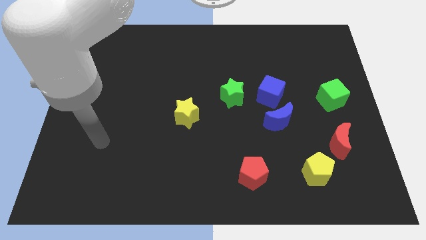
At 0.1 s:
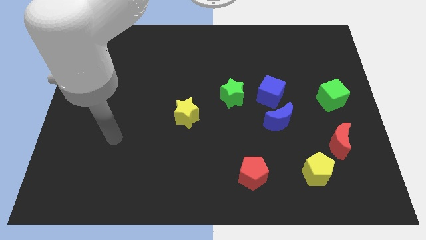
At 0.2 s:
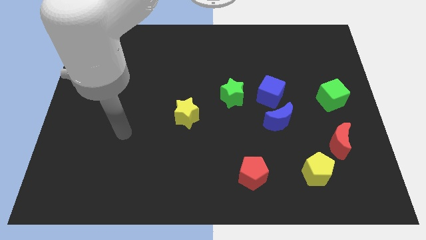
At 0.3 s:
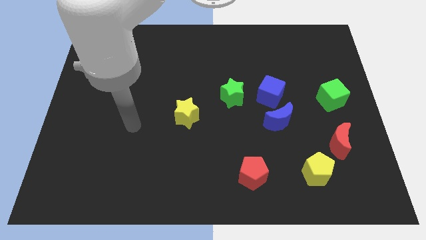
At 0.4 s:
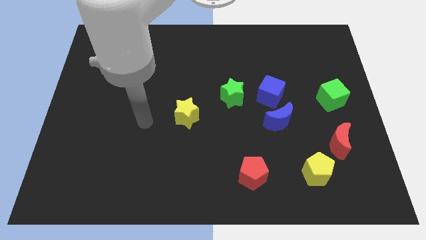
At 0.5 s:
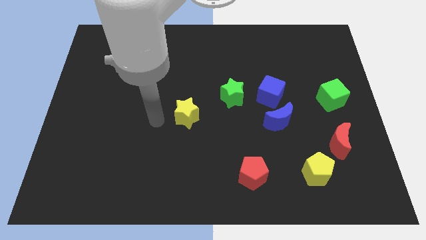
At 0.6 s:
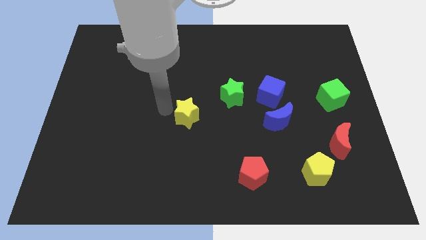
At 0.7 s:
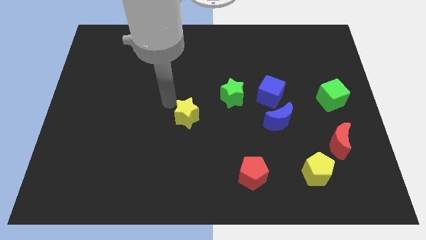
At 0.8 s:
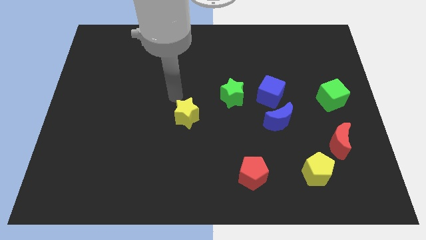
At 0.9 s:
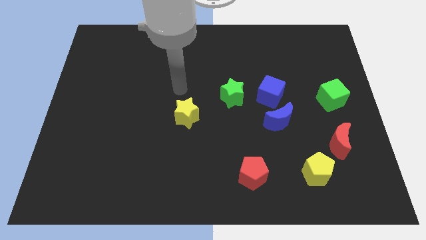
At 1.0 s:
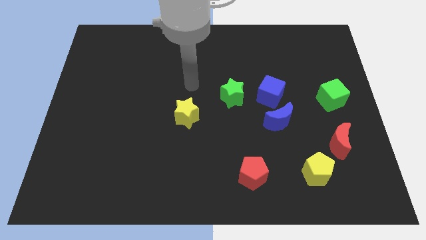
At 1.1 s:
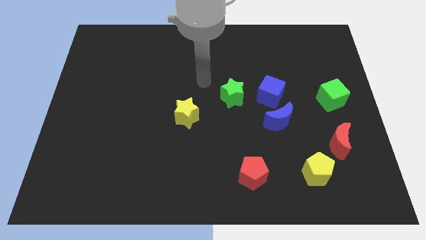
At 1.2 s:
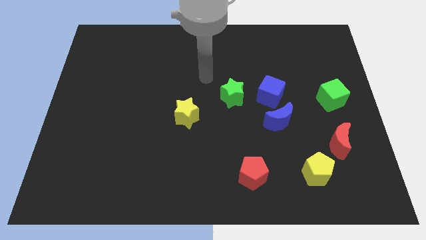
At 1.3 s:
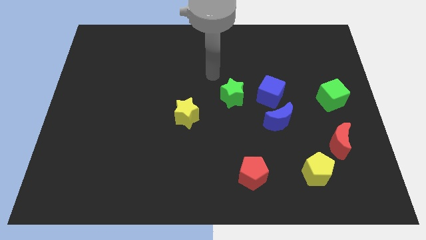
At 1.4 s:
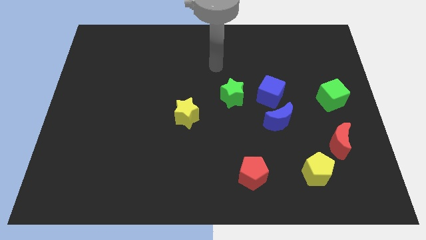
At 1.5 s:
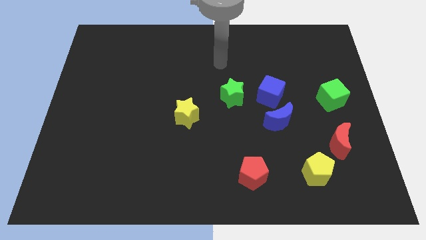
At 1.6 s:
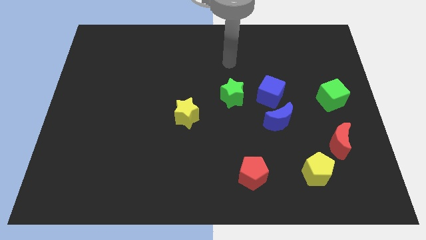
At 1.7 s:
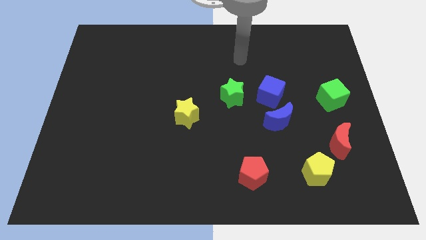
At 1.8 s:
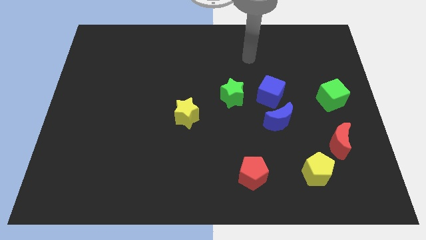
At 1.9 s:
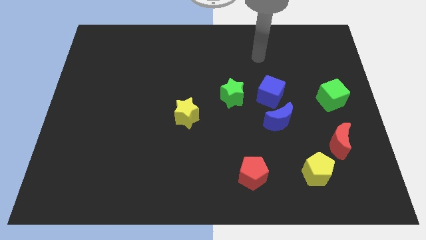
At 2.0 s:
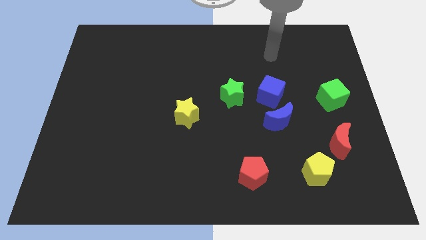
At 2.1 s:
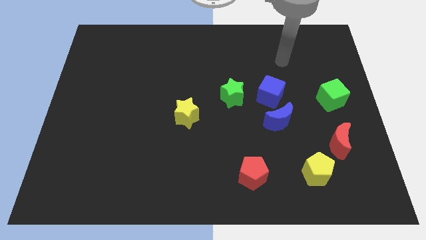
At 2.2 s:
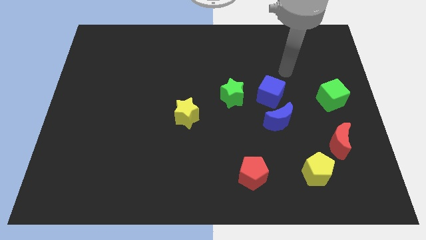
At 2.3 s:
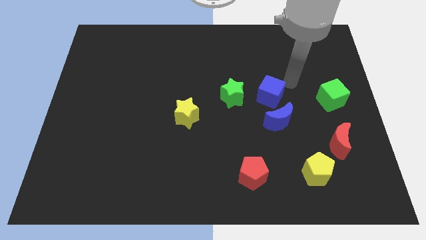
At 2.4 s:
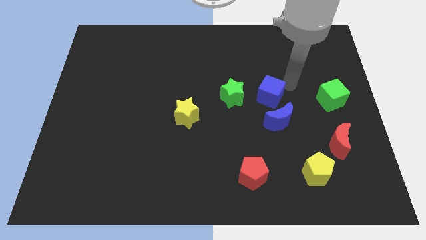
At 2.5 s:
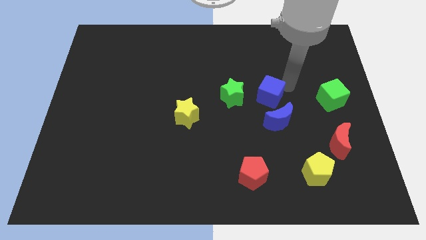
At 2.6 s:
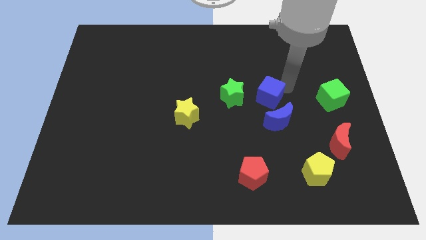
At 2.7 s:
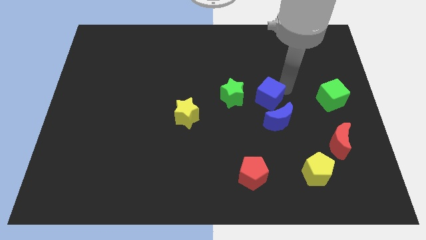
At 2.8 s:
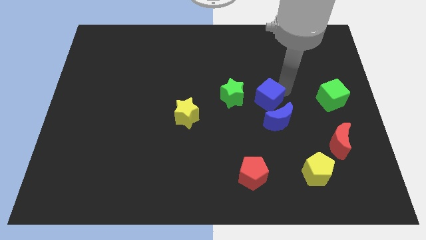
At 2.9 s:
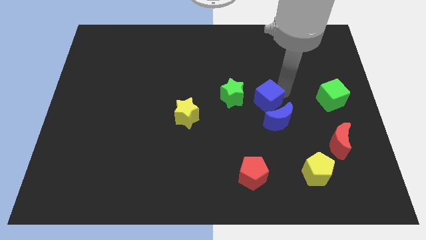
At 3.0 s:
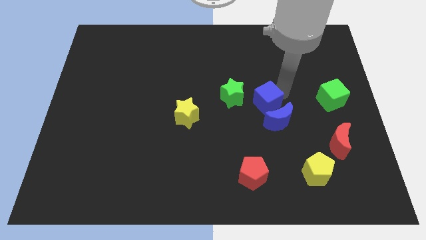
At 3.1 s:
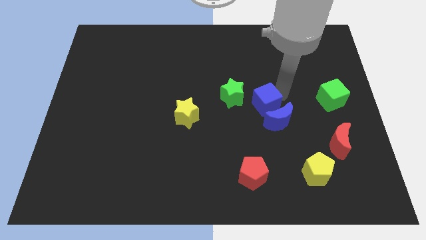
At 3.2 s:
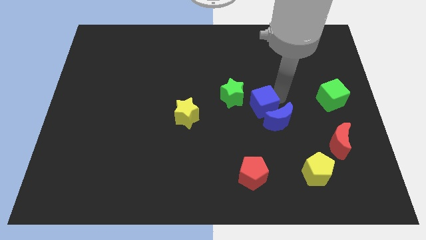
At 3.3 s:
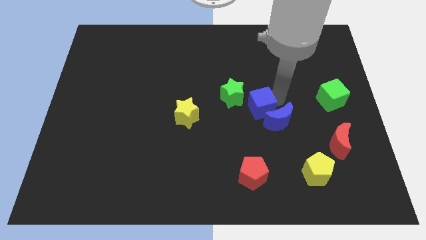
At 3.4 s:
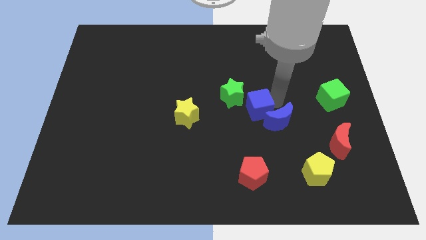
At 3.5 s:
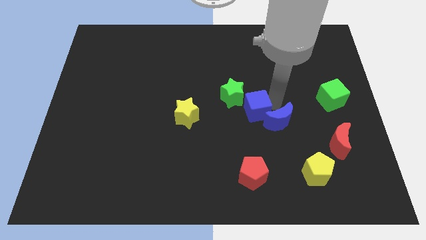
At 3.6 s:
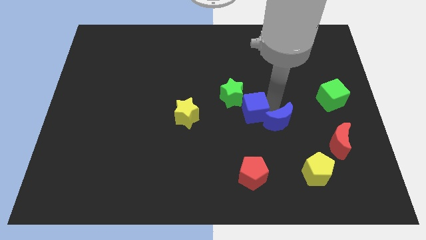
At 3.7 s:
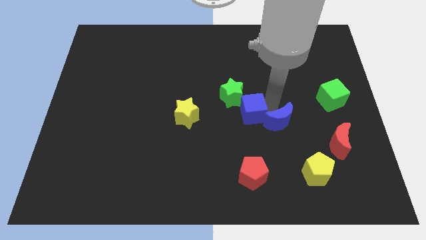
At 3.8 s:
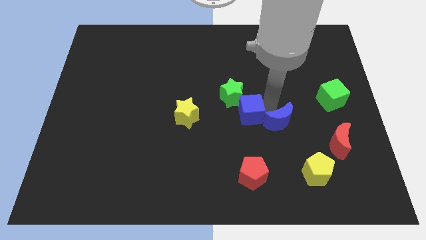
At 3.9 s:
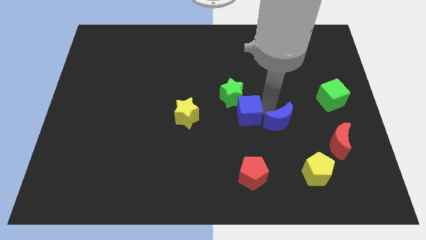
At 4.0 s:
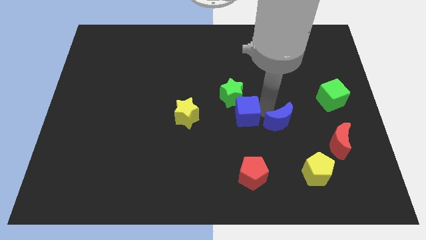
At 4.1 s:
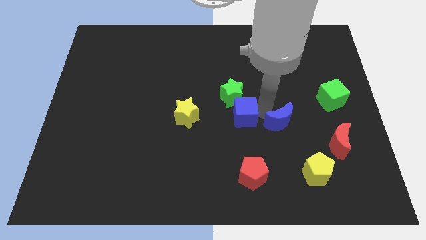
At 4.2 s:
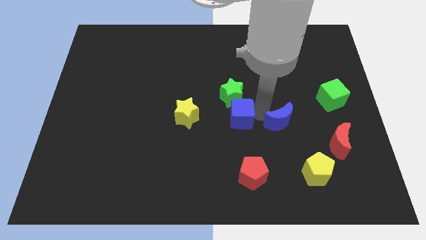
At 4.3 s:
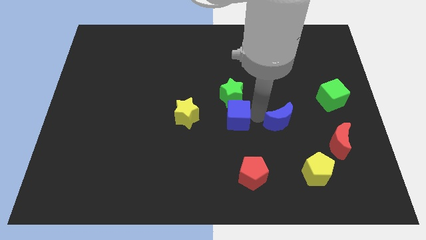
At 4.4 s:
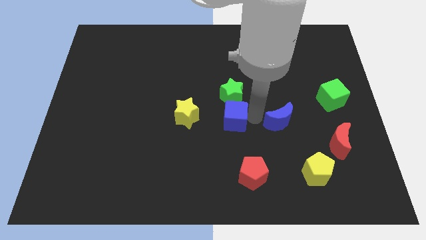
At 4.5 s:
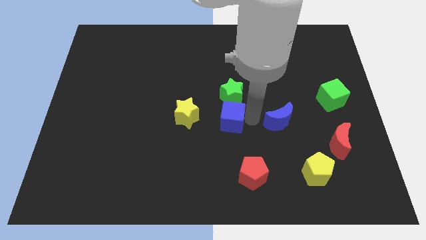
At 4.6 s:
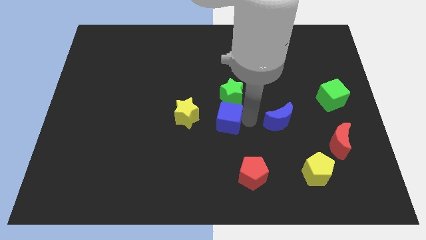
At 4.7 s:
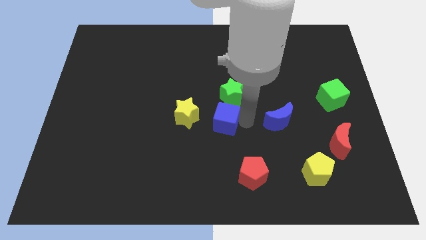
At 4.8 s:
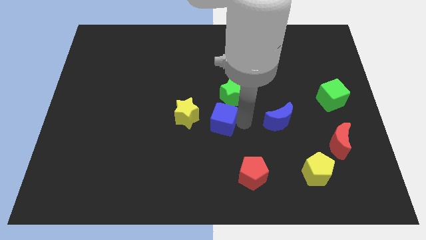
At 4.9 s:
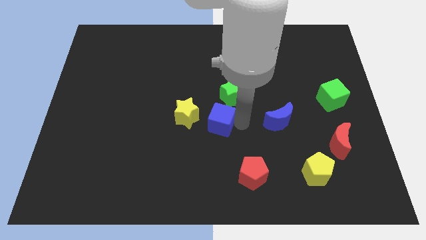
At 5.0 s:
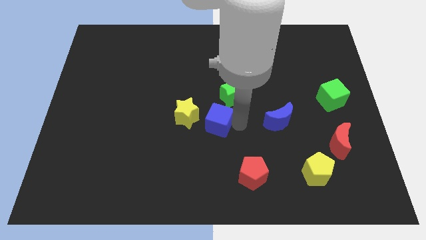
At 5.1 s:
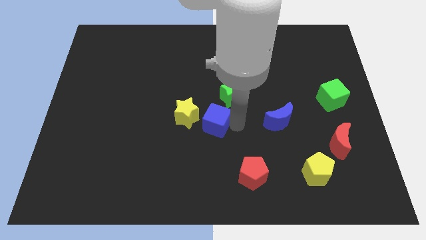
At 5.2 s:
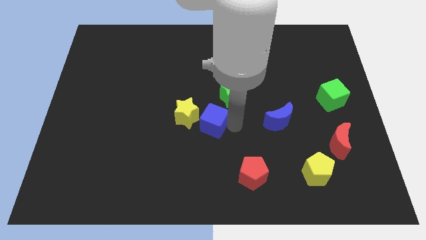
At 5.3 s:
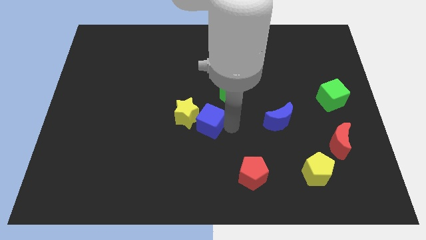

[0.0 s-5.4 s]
move the blue cube towards the yellow star
